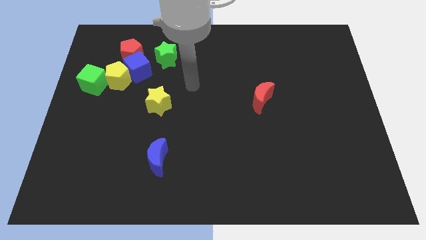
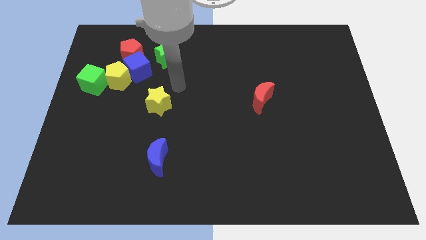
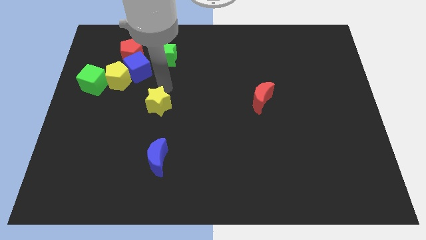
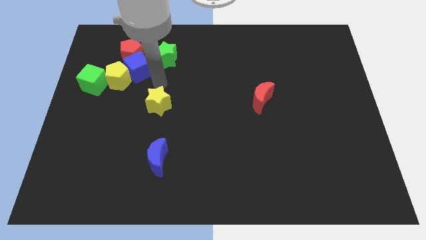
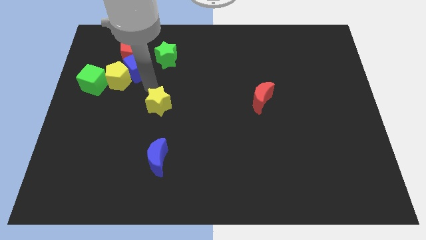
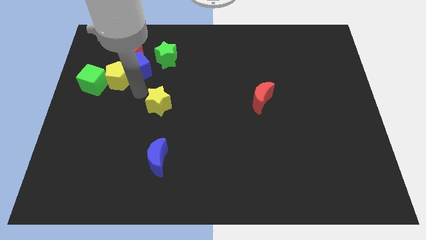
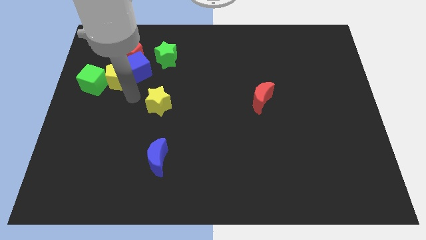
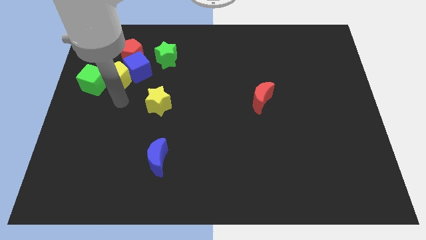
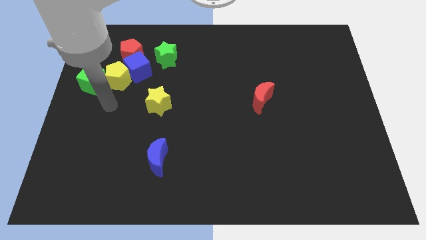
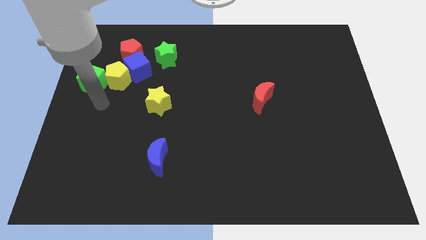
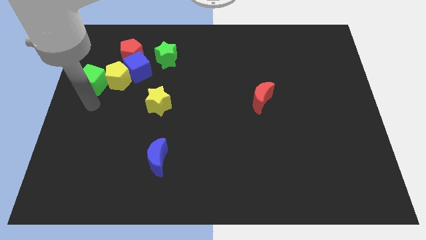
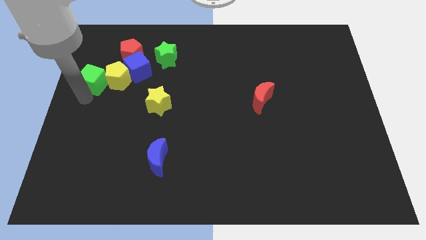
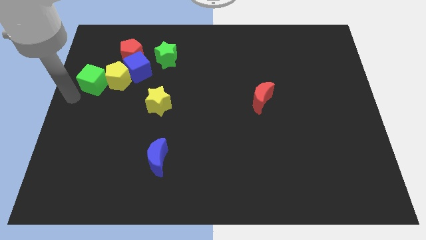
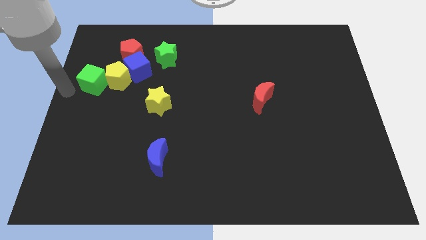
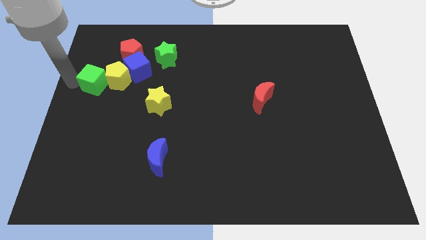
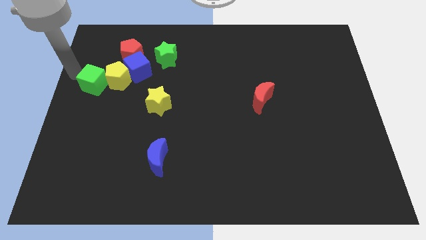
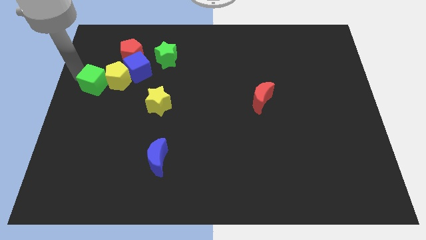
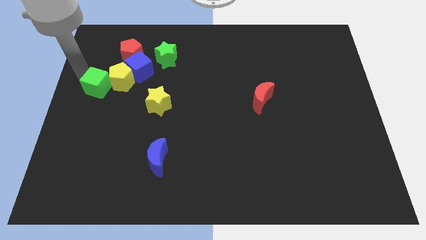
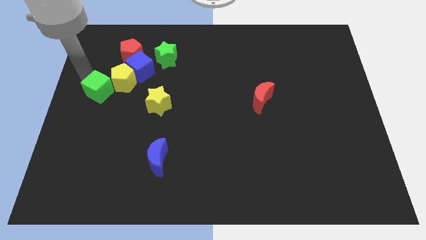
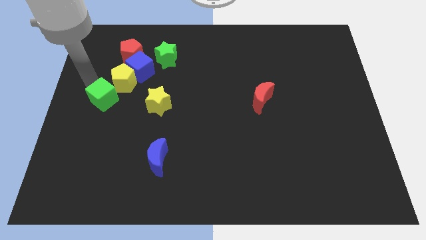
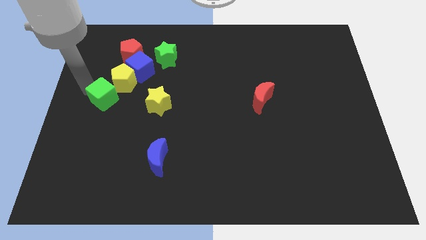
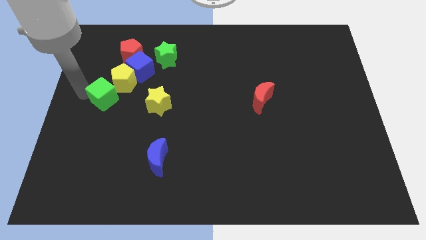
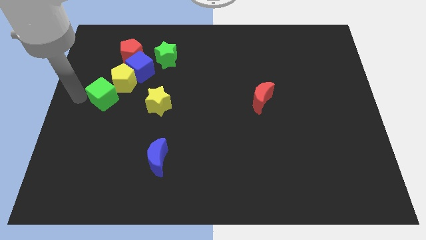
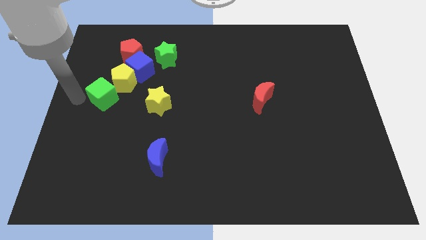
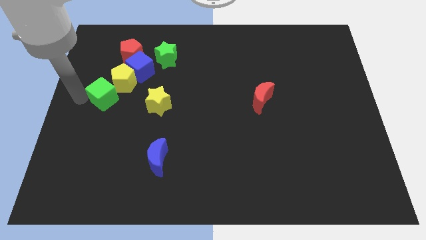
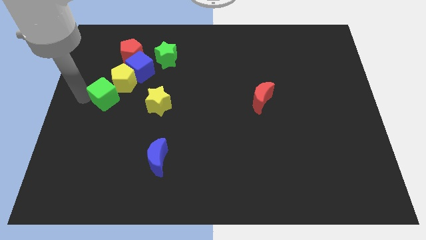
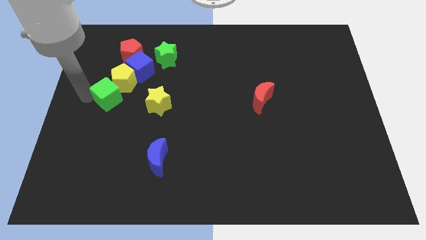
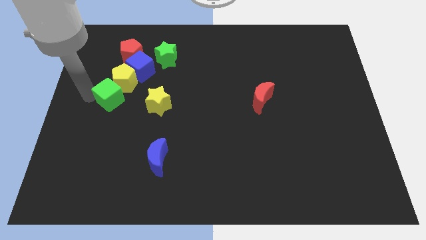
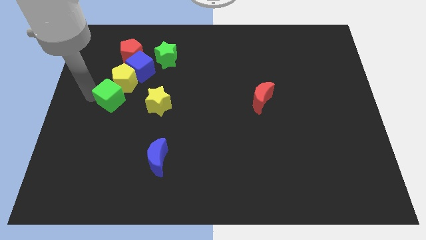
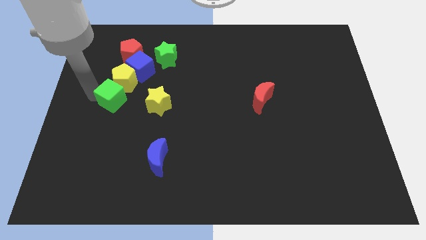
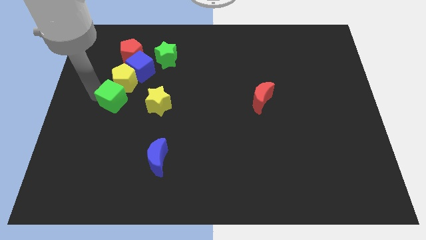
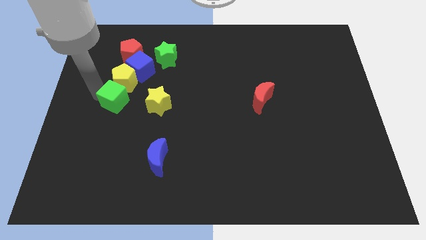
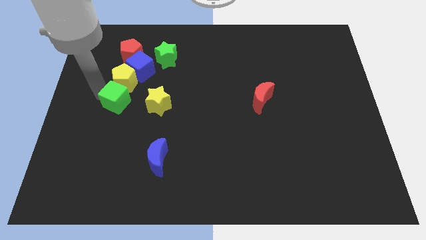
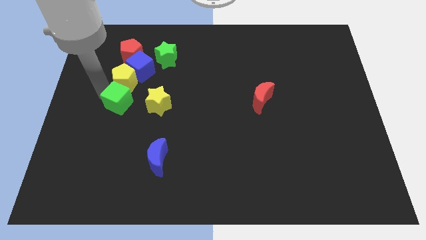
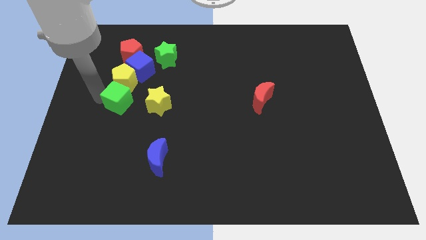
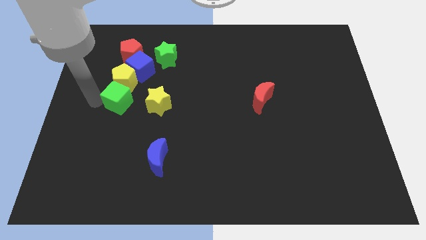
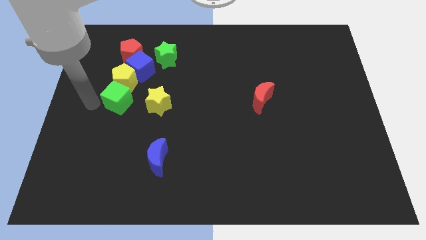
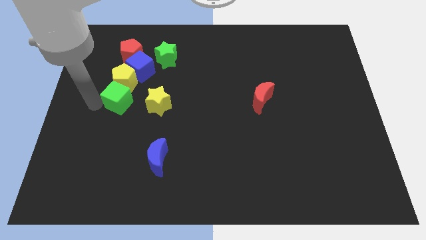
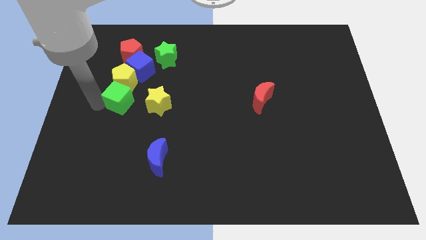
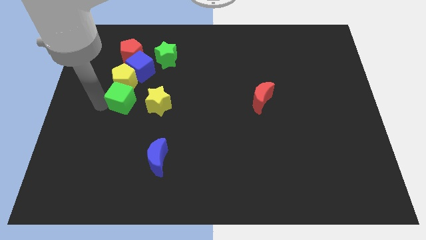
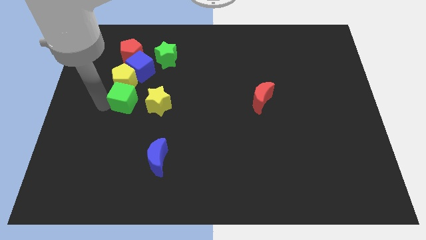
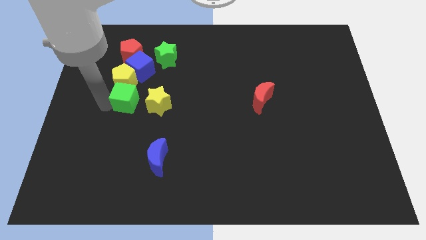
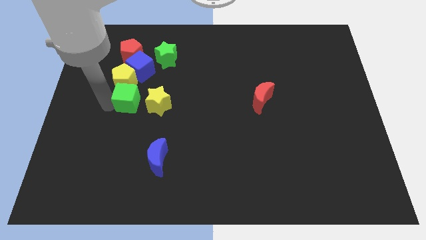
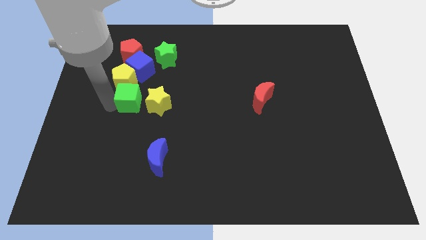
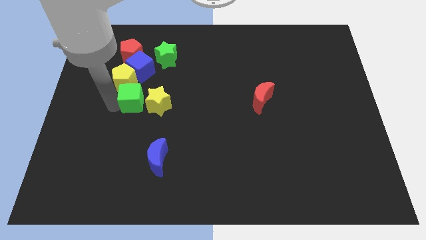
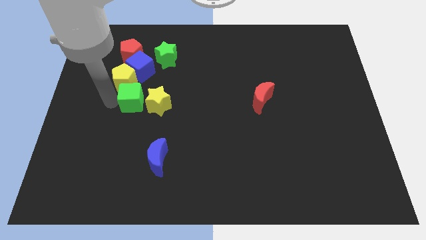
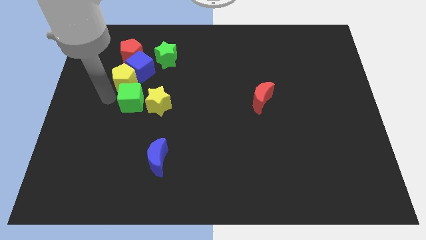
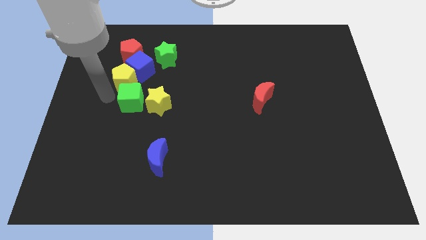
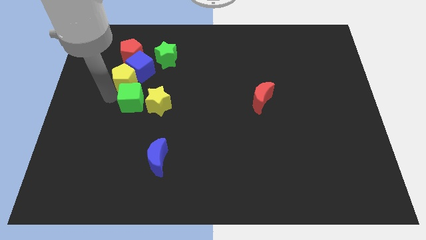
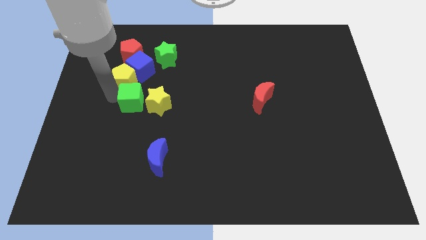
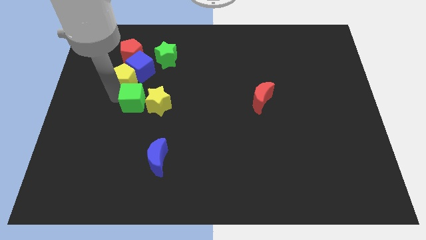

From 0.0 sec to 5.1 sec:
slide the green cube close to the yellow star
